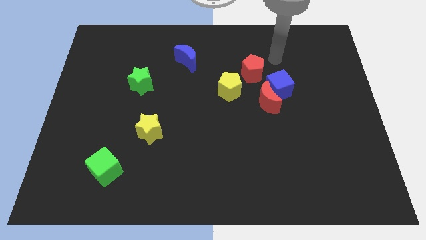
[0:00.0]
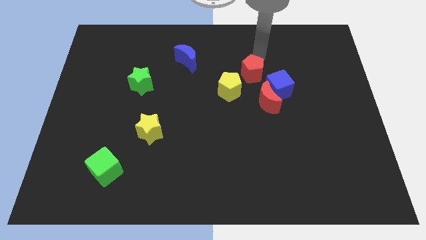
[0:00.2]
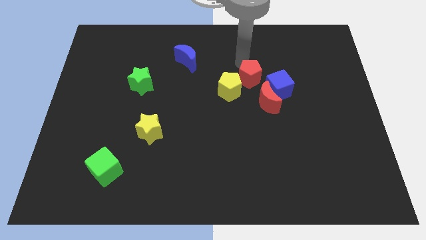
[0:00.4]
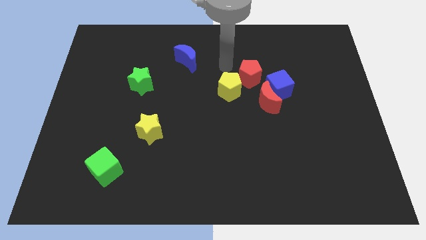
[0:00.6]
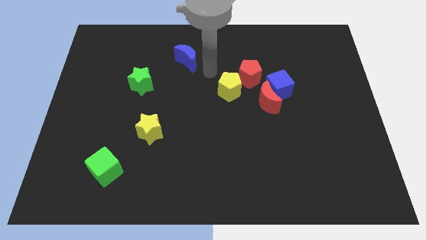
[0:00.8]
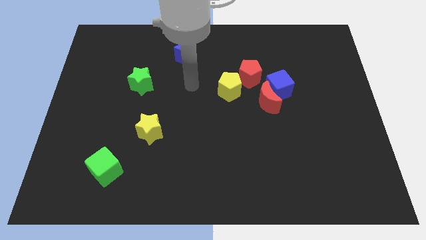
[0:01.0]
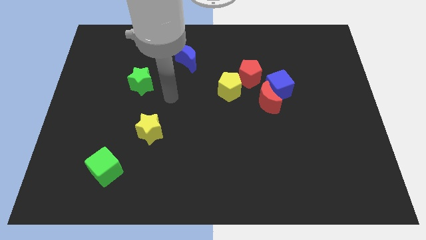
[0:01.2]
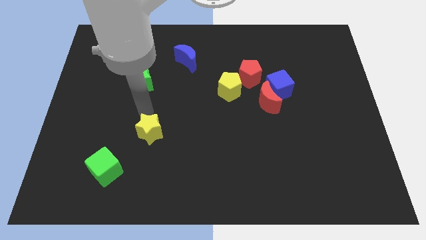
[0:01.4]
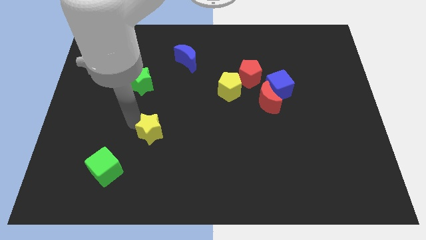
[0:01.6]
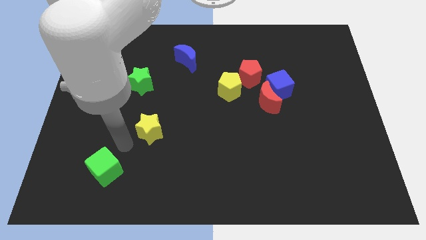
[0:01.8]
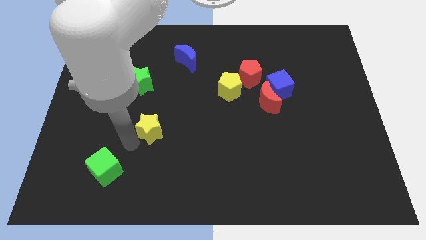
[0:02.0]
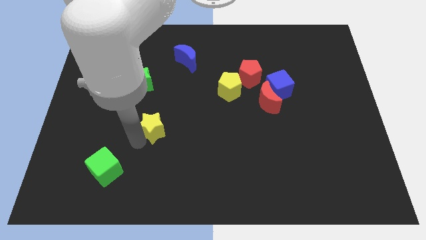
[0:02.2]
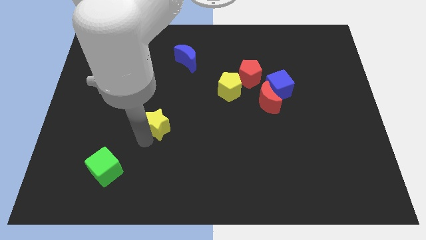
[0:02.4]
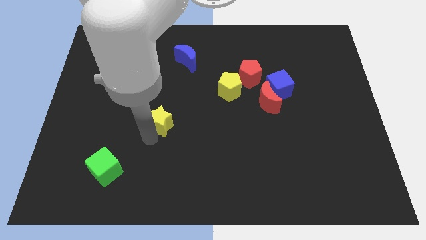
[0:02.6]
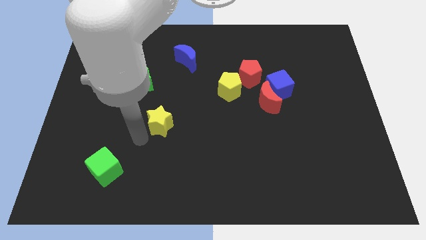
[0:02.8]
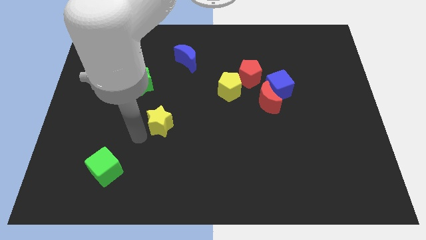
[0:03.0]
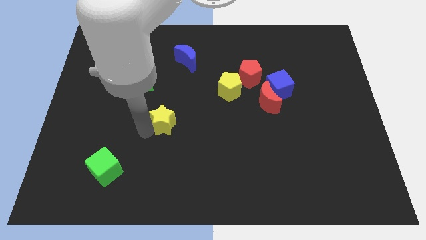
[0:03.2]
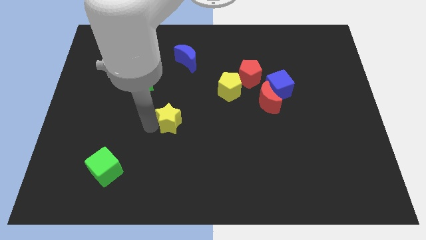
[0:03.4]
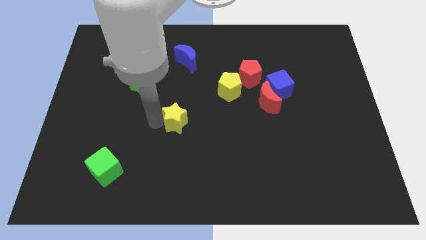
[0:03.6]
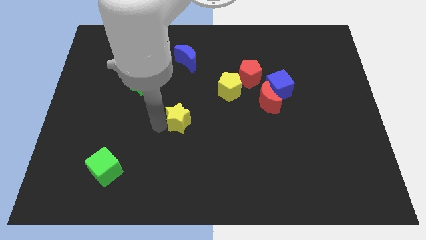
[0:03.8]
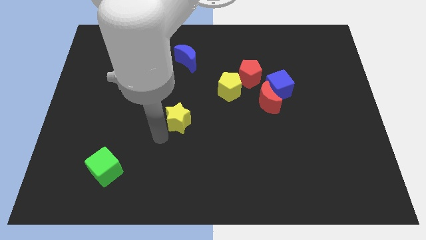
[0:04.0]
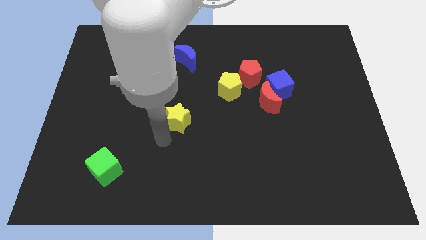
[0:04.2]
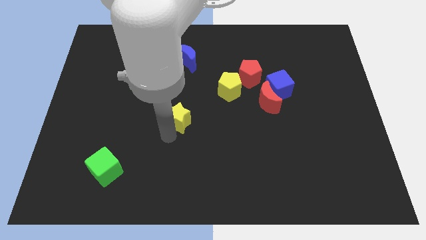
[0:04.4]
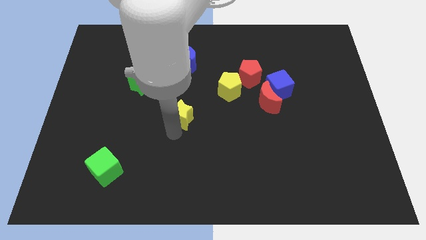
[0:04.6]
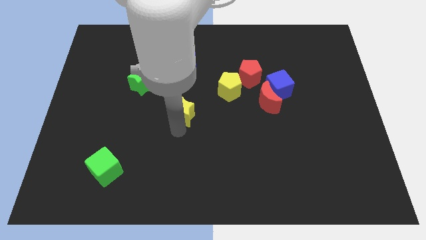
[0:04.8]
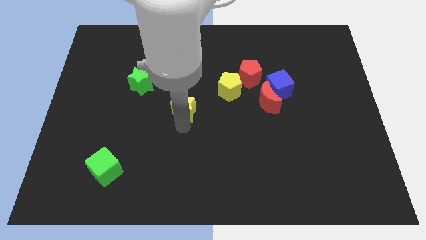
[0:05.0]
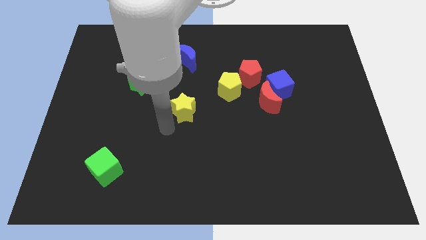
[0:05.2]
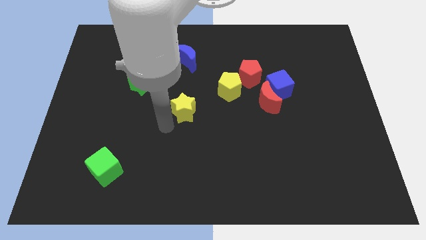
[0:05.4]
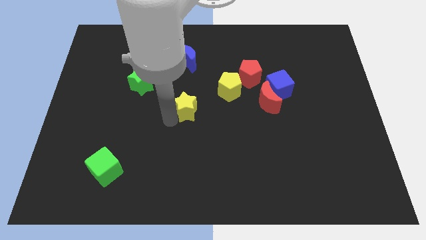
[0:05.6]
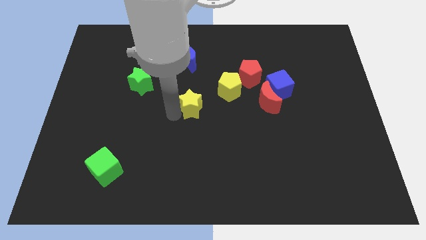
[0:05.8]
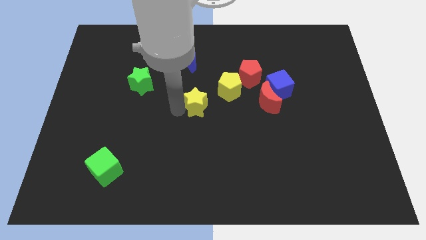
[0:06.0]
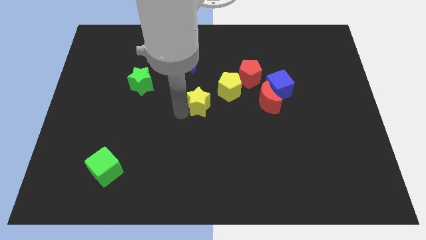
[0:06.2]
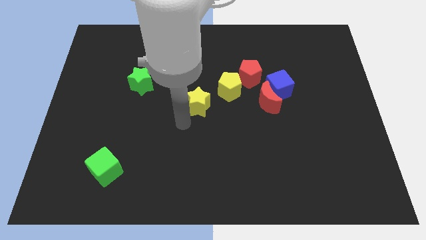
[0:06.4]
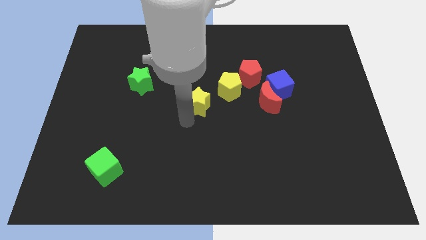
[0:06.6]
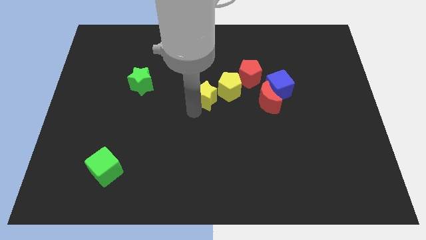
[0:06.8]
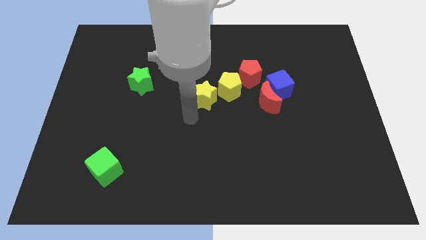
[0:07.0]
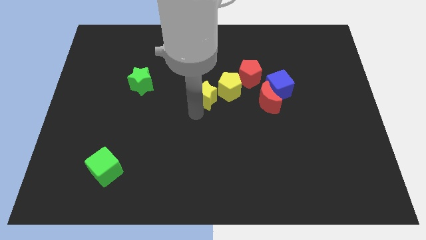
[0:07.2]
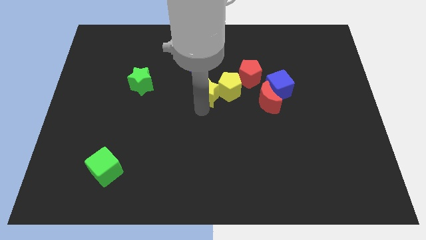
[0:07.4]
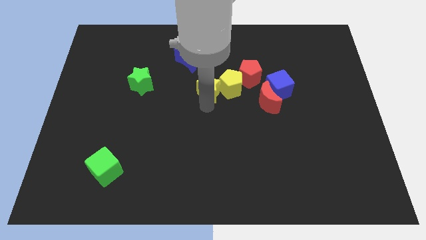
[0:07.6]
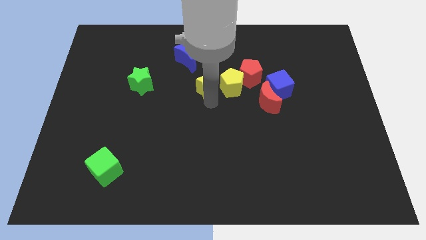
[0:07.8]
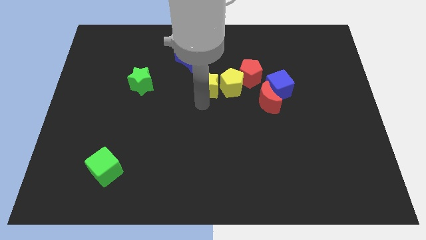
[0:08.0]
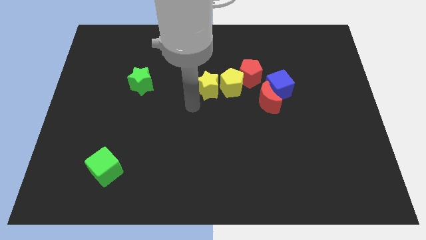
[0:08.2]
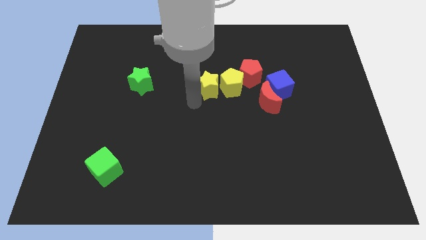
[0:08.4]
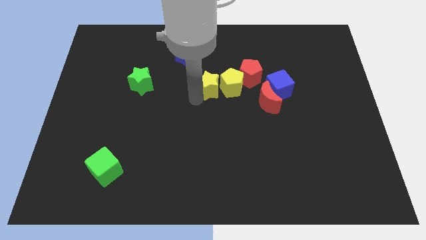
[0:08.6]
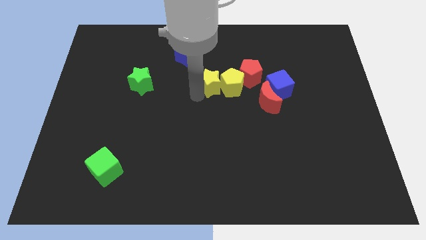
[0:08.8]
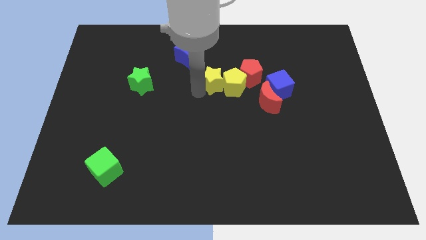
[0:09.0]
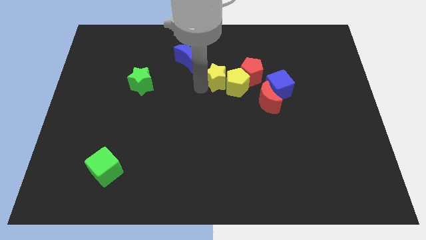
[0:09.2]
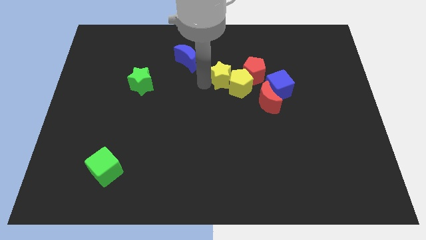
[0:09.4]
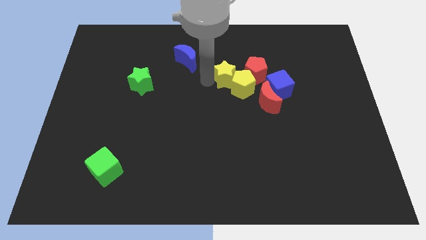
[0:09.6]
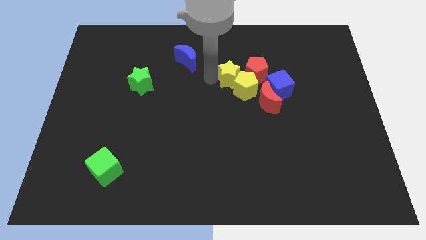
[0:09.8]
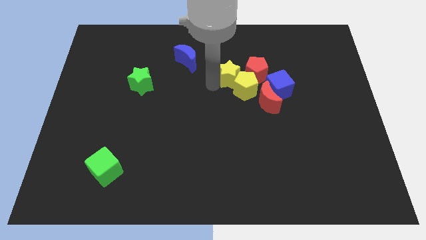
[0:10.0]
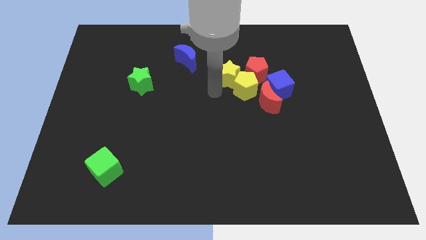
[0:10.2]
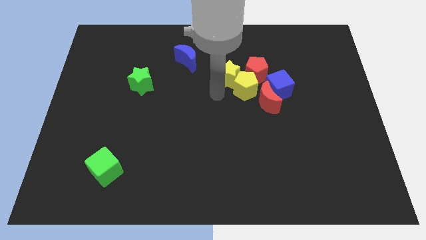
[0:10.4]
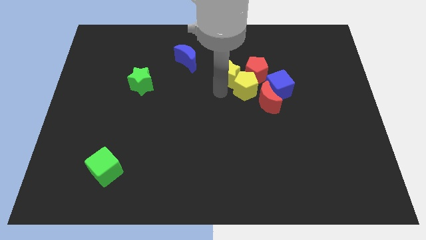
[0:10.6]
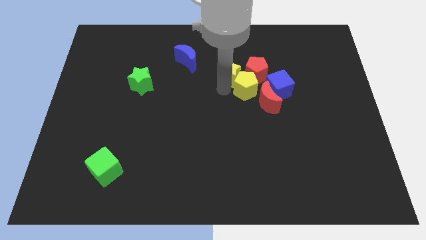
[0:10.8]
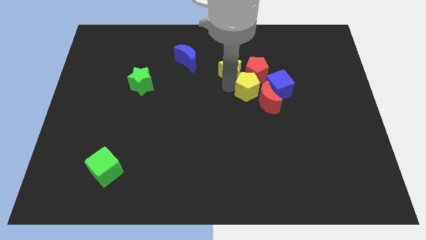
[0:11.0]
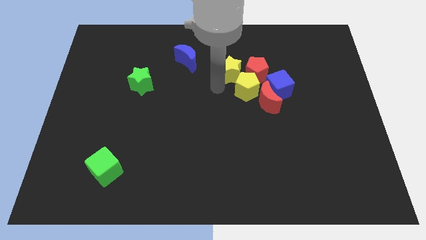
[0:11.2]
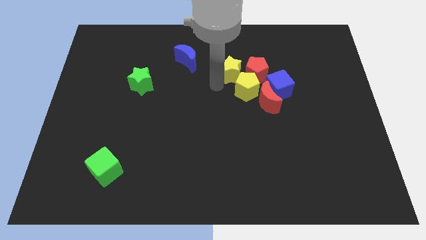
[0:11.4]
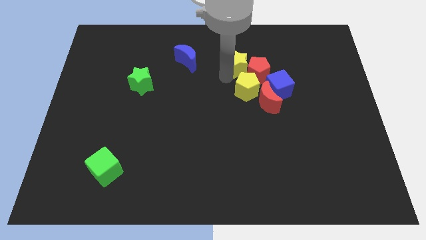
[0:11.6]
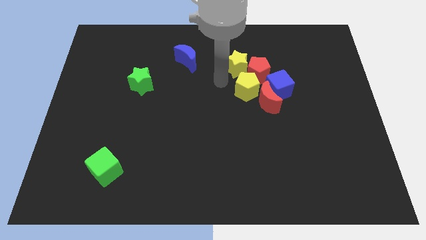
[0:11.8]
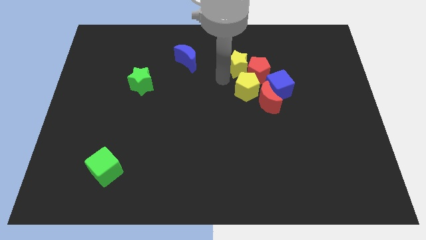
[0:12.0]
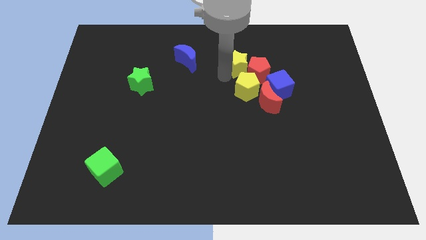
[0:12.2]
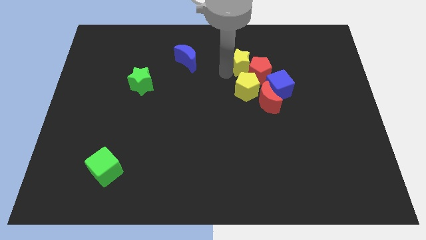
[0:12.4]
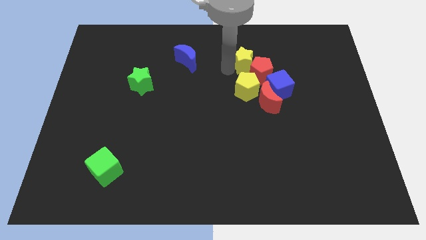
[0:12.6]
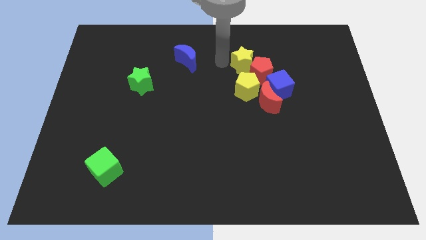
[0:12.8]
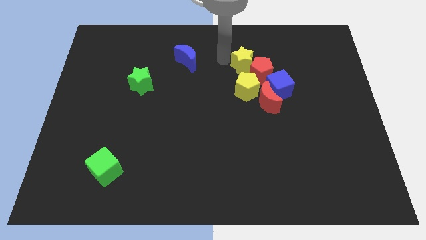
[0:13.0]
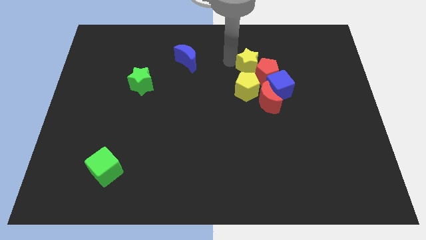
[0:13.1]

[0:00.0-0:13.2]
put the yellow star to the top of the red moon
